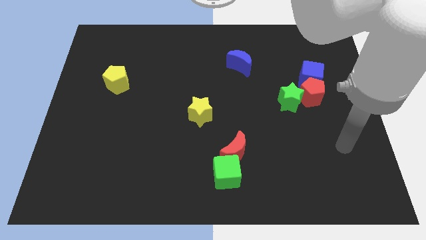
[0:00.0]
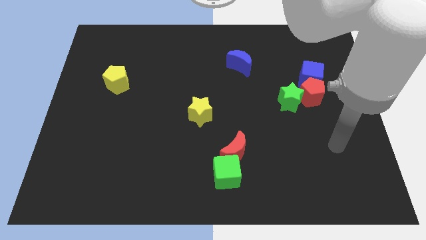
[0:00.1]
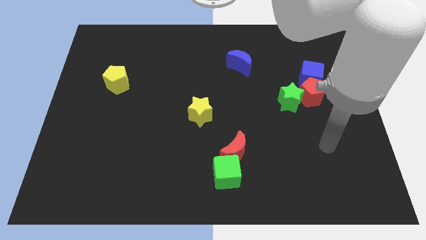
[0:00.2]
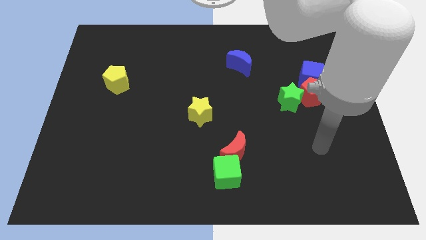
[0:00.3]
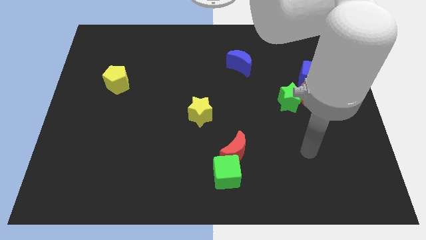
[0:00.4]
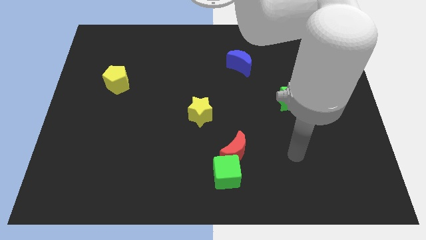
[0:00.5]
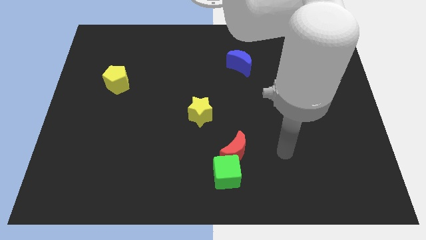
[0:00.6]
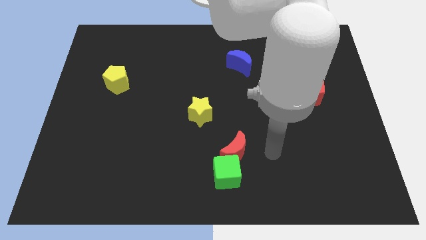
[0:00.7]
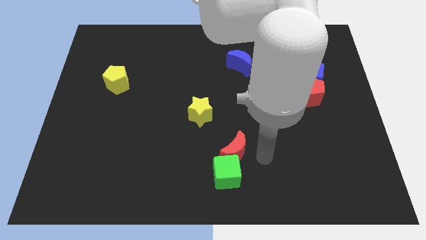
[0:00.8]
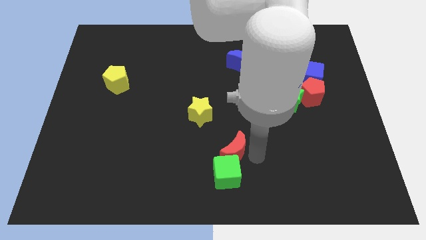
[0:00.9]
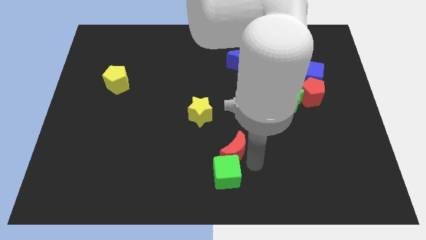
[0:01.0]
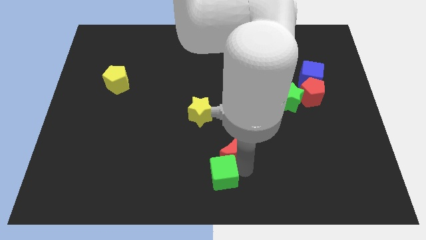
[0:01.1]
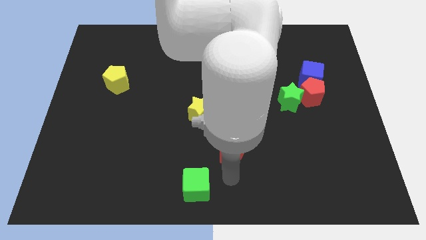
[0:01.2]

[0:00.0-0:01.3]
pull the red moon apart from the green cube

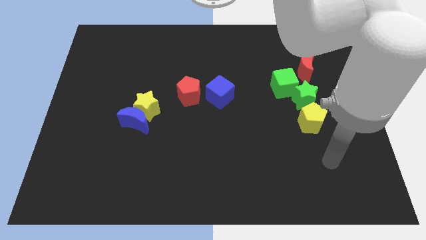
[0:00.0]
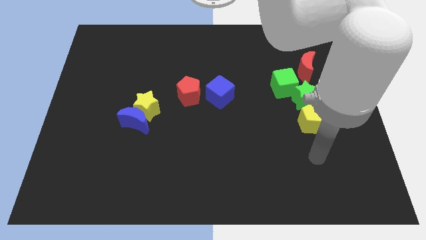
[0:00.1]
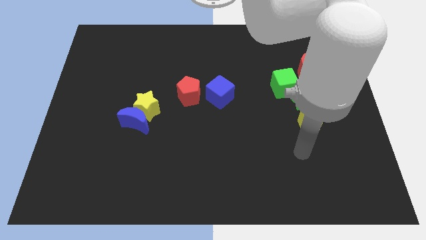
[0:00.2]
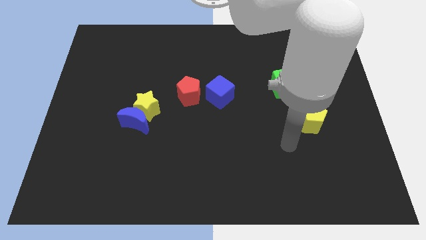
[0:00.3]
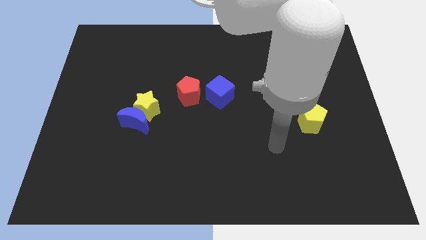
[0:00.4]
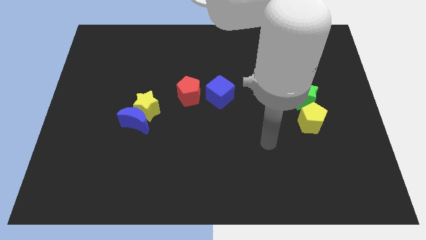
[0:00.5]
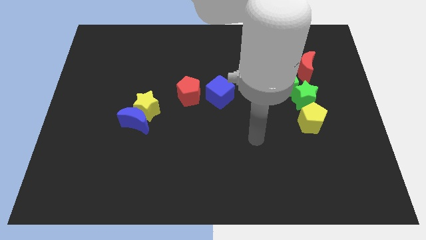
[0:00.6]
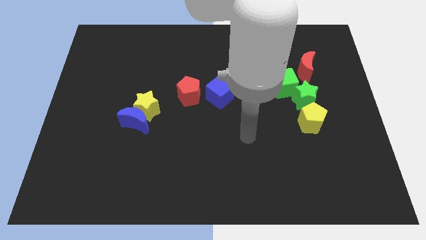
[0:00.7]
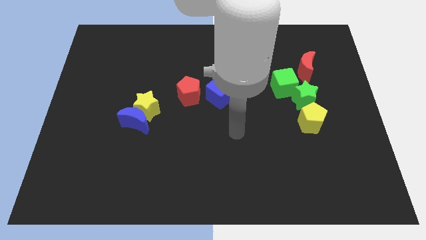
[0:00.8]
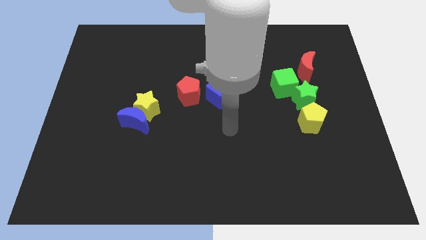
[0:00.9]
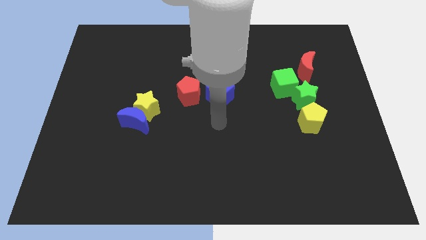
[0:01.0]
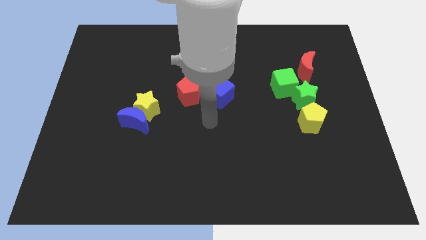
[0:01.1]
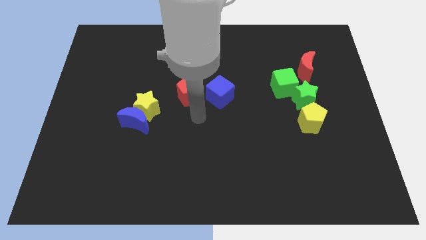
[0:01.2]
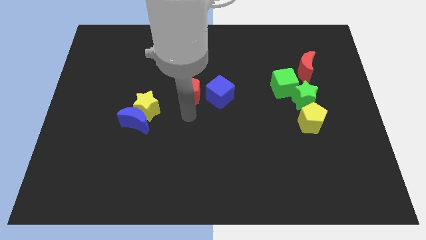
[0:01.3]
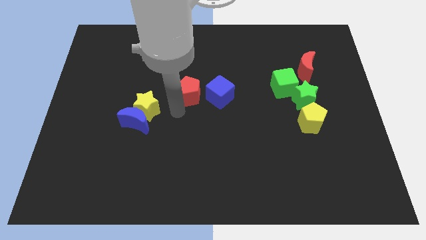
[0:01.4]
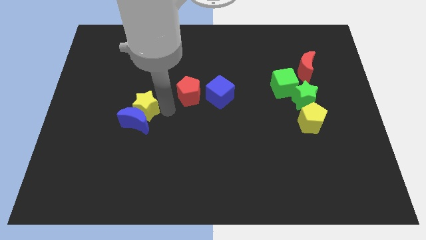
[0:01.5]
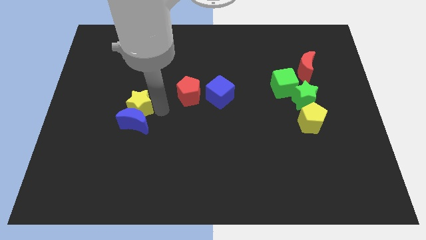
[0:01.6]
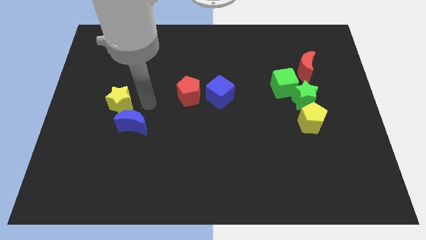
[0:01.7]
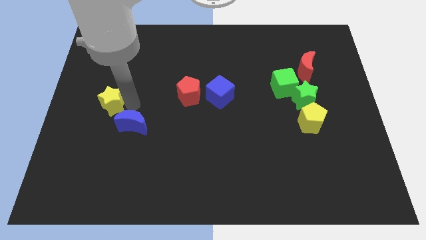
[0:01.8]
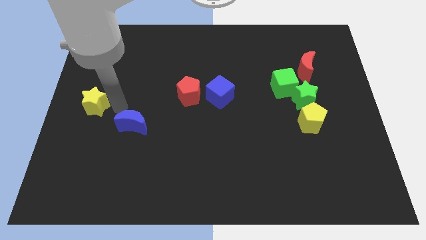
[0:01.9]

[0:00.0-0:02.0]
separate the blue moon from the yellow star

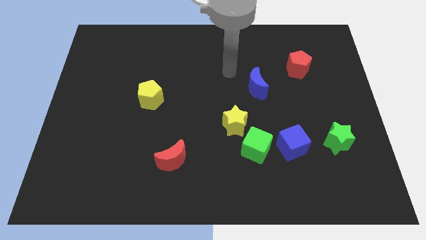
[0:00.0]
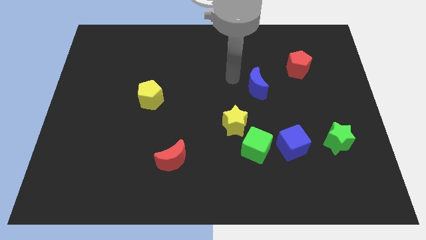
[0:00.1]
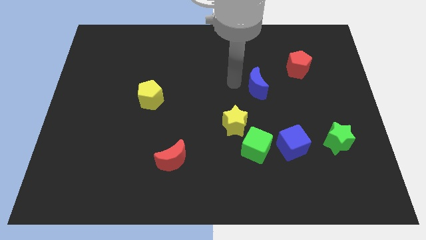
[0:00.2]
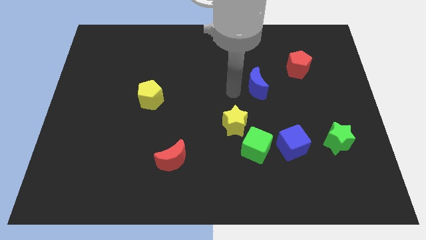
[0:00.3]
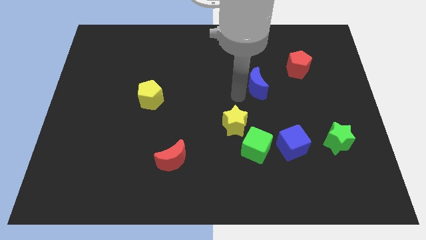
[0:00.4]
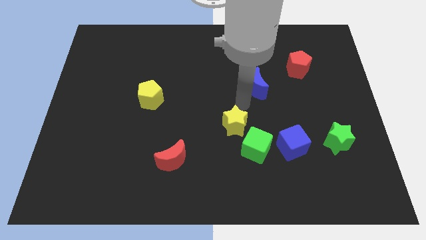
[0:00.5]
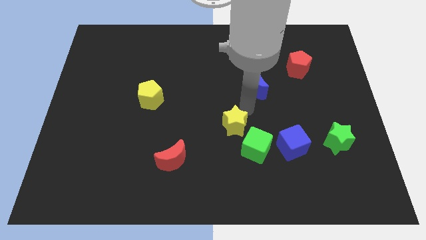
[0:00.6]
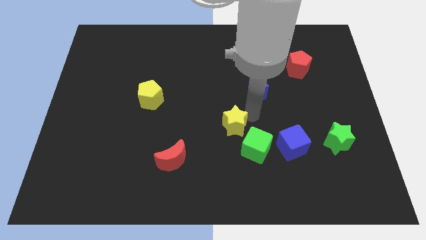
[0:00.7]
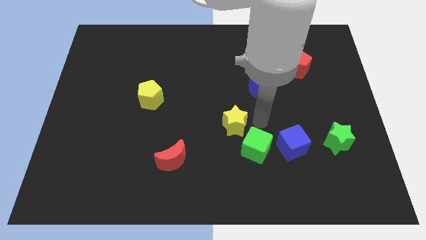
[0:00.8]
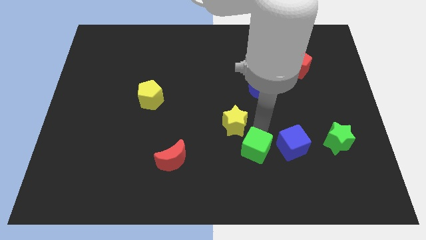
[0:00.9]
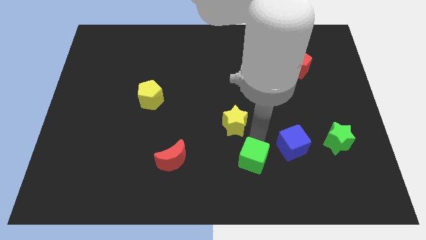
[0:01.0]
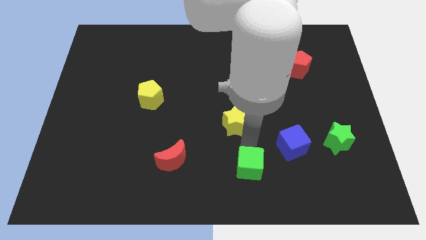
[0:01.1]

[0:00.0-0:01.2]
separate the yellow star from the green cube

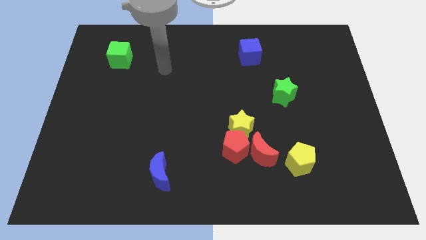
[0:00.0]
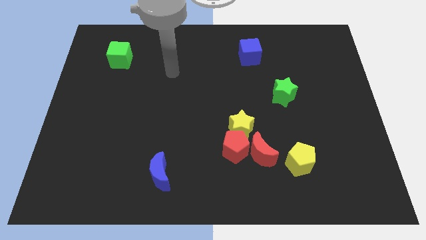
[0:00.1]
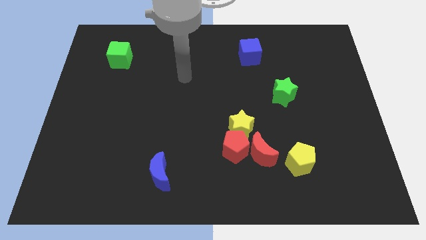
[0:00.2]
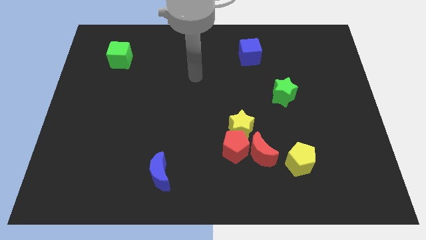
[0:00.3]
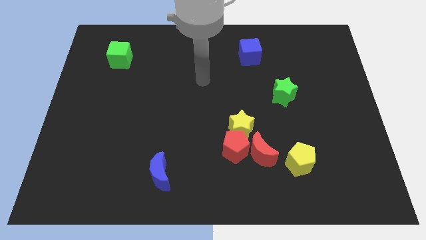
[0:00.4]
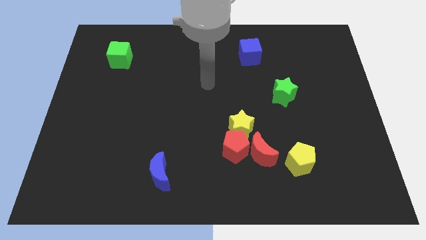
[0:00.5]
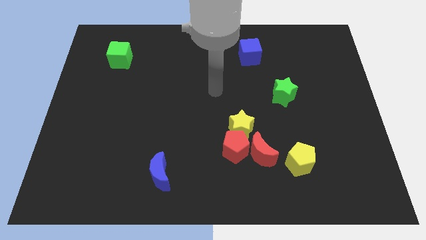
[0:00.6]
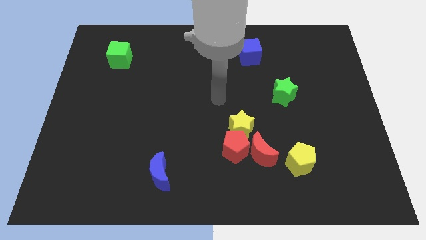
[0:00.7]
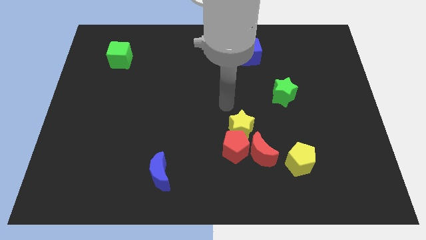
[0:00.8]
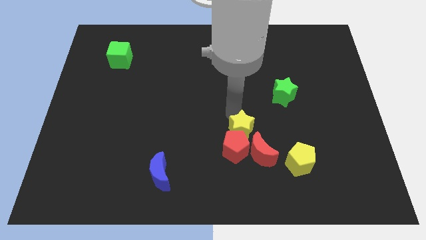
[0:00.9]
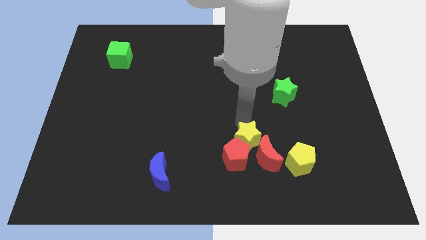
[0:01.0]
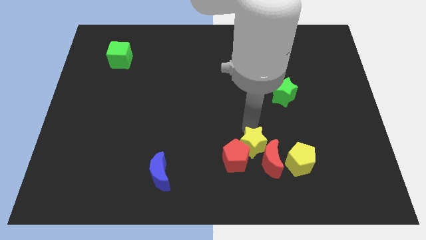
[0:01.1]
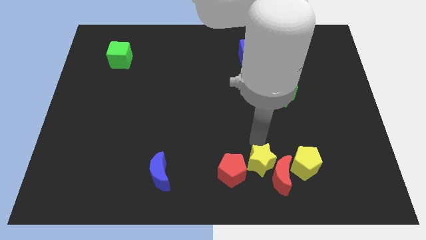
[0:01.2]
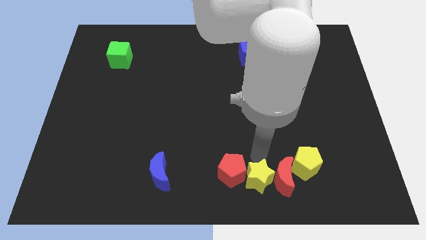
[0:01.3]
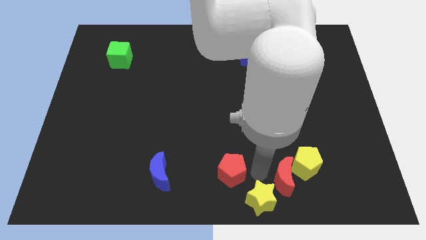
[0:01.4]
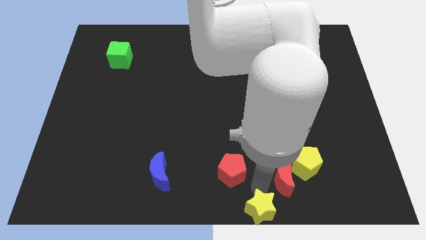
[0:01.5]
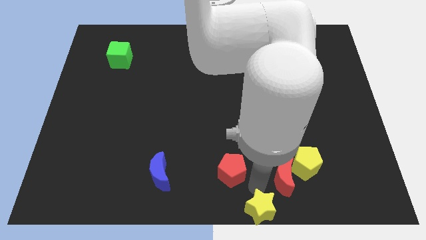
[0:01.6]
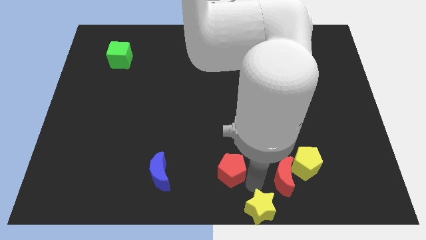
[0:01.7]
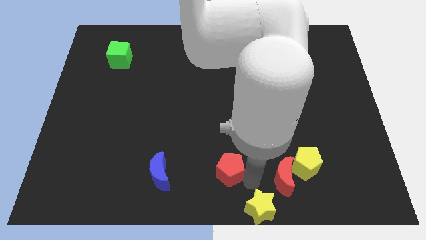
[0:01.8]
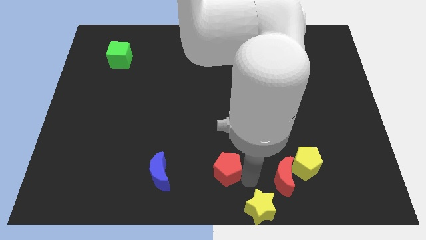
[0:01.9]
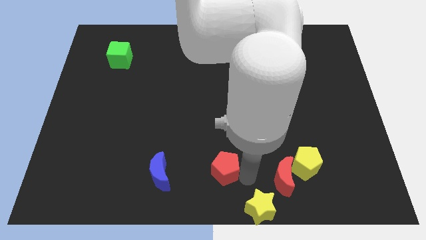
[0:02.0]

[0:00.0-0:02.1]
move the red pentagon away from the yellow star and red moon

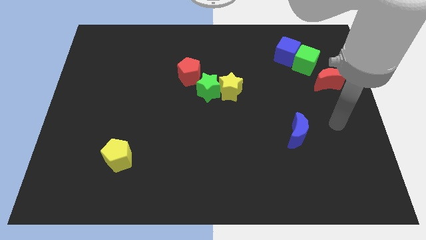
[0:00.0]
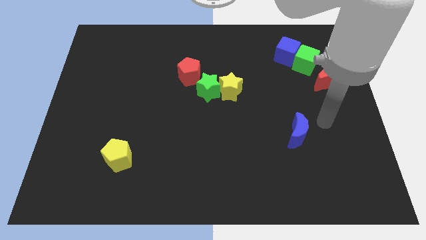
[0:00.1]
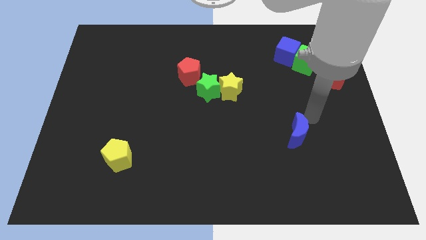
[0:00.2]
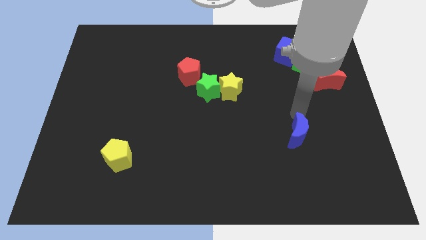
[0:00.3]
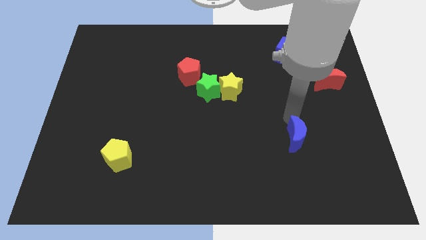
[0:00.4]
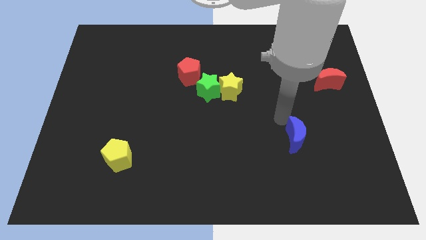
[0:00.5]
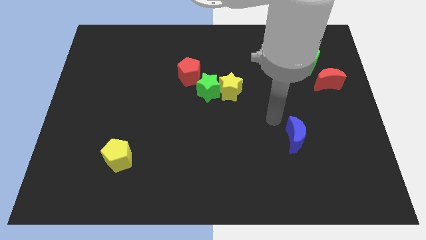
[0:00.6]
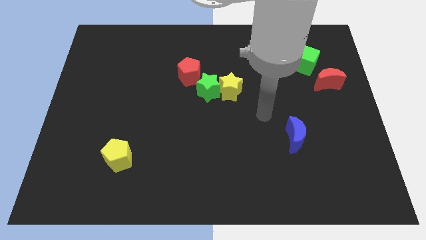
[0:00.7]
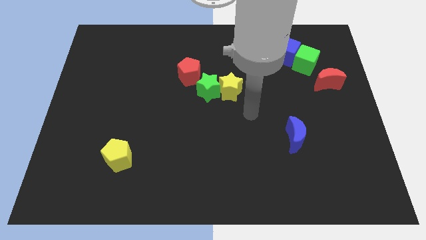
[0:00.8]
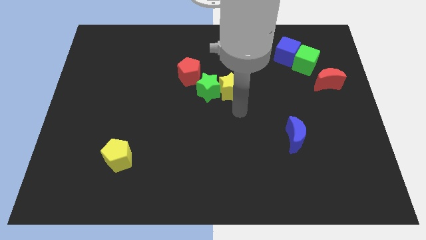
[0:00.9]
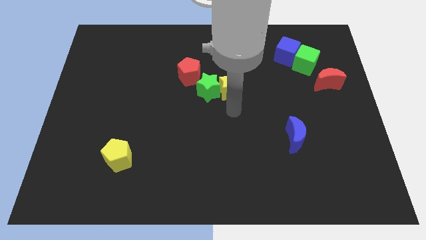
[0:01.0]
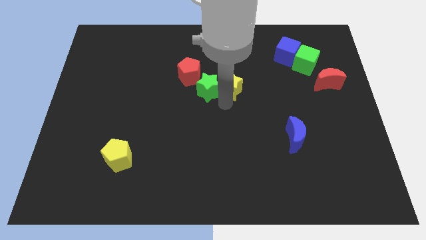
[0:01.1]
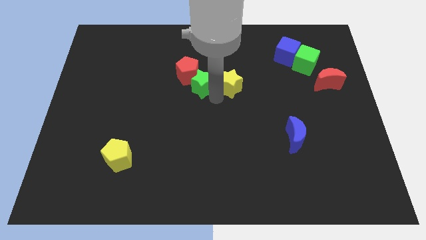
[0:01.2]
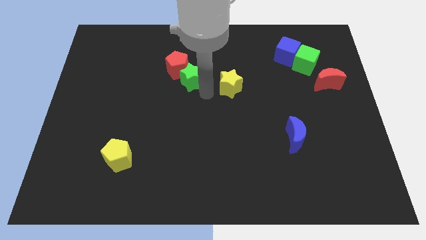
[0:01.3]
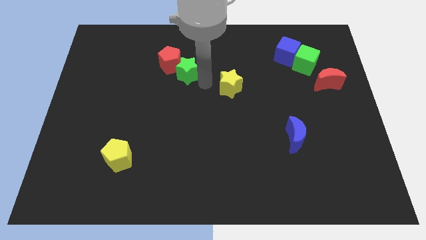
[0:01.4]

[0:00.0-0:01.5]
pull the yellow star apart from the green star

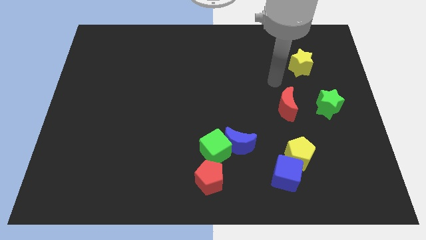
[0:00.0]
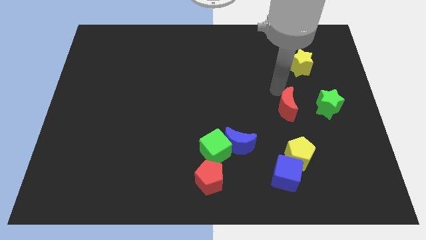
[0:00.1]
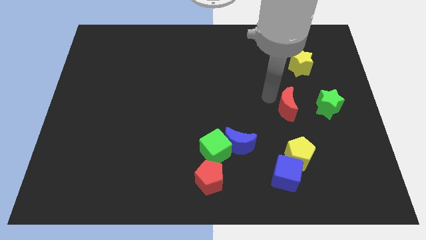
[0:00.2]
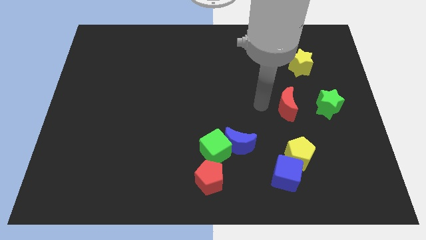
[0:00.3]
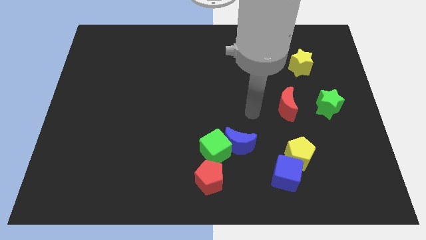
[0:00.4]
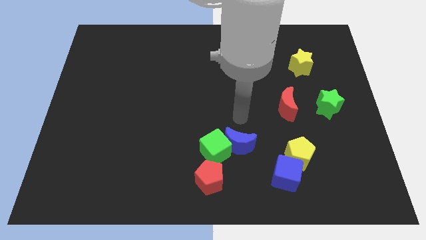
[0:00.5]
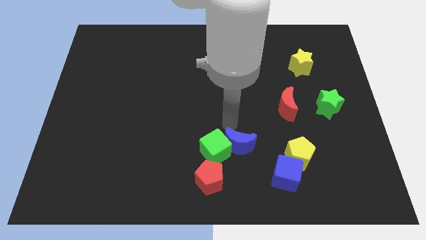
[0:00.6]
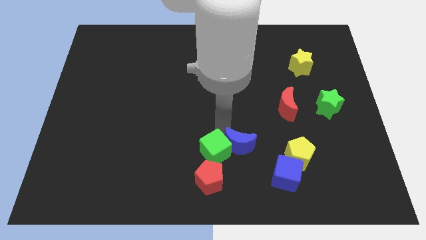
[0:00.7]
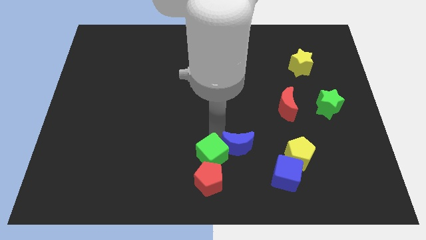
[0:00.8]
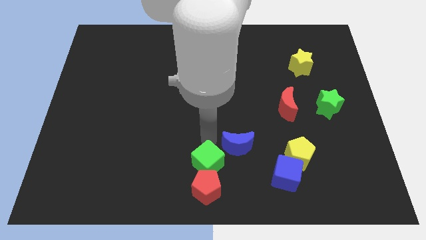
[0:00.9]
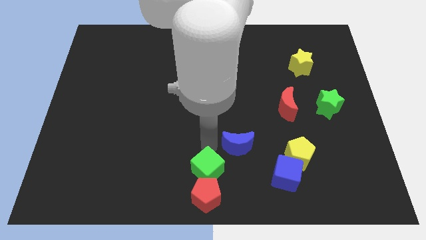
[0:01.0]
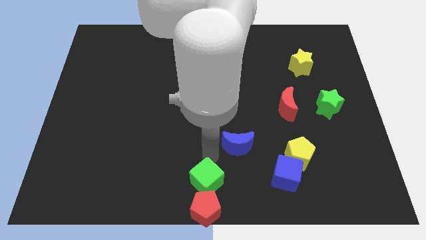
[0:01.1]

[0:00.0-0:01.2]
separate the blue moon from the green cube
